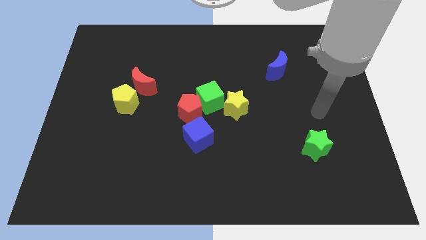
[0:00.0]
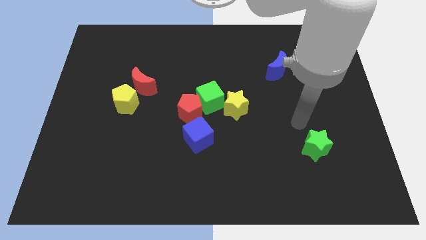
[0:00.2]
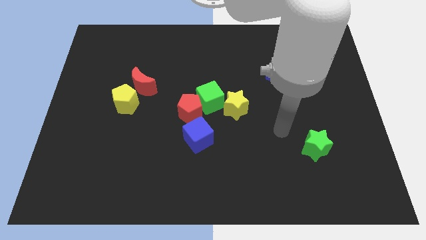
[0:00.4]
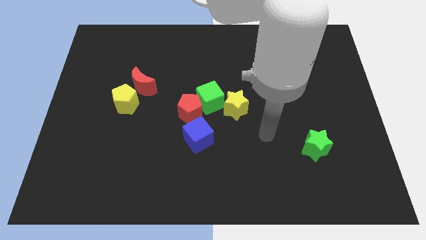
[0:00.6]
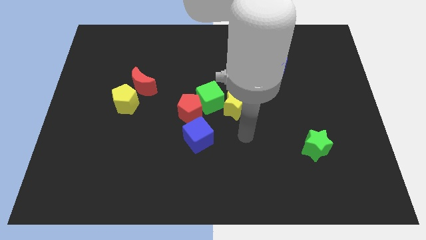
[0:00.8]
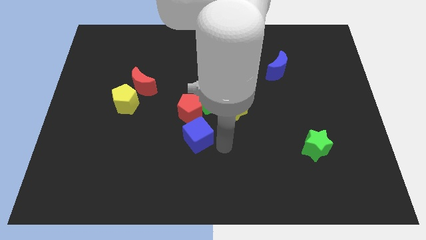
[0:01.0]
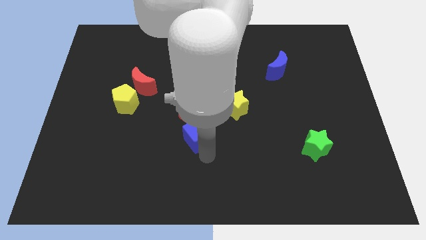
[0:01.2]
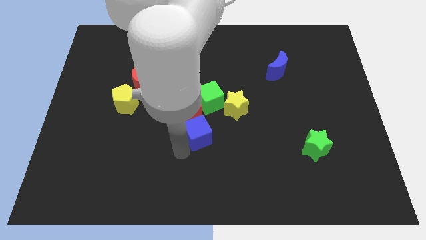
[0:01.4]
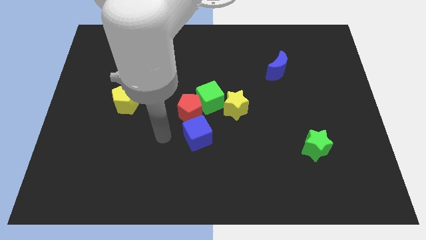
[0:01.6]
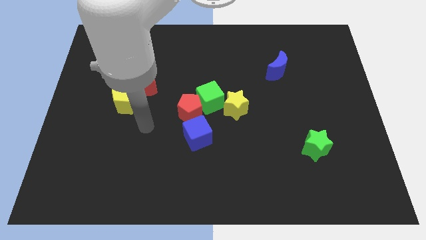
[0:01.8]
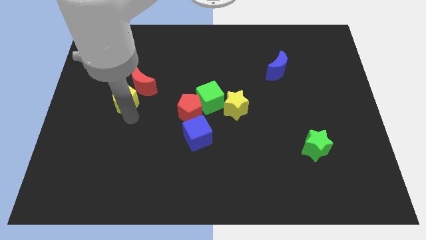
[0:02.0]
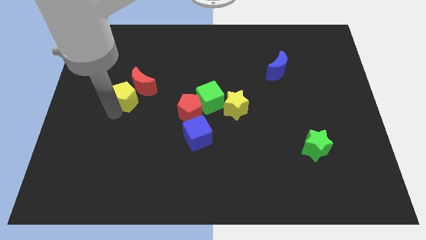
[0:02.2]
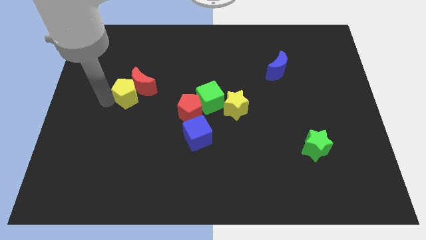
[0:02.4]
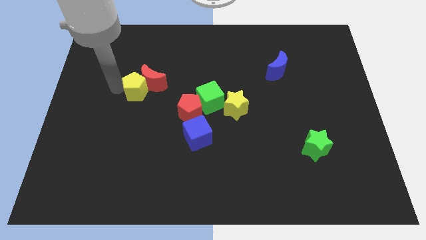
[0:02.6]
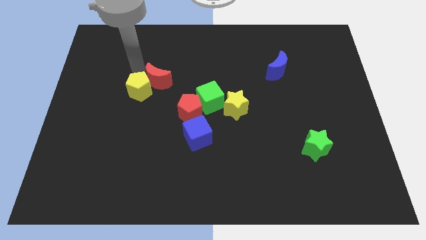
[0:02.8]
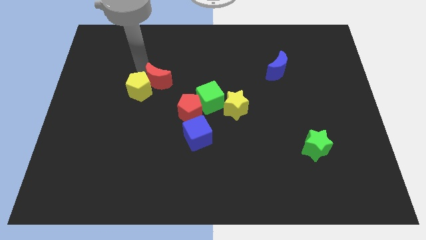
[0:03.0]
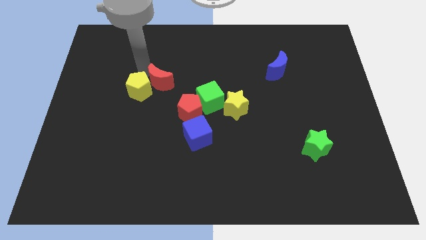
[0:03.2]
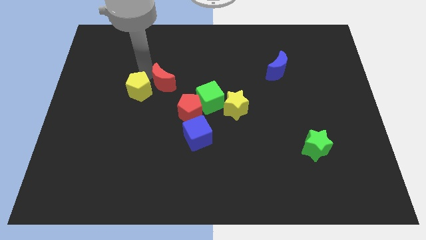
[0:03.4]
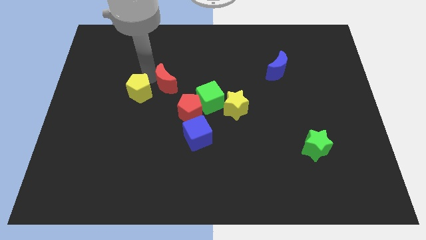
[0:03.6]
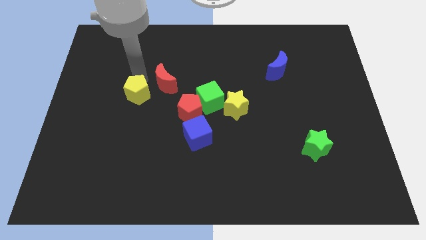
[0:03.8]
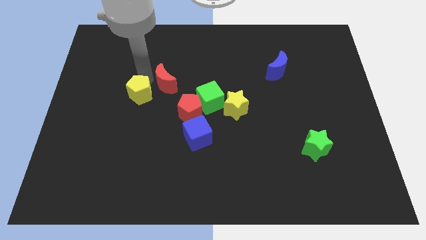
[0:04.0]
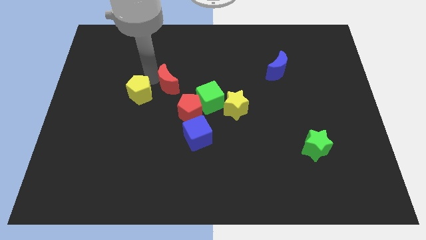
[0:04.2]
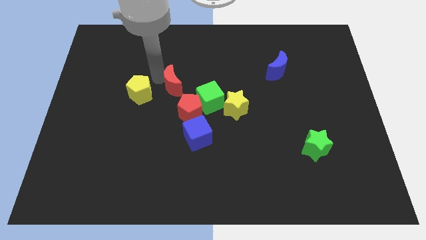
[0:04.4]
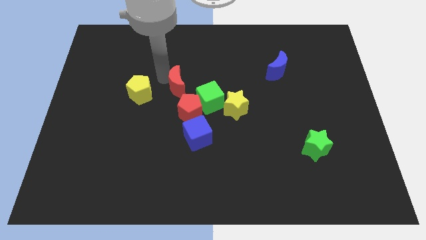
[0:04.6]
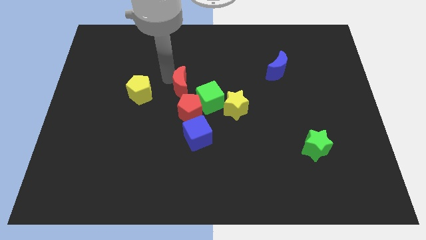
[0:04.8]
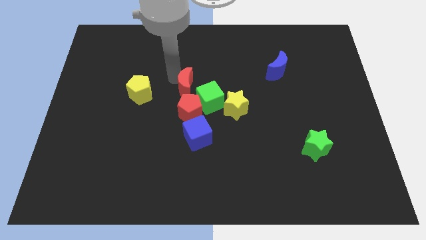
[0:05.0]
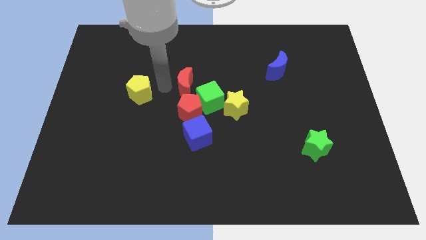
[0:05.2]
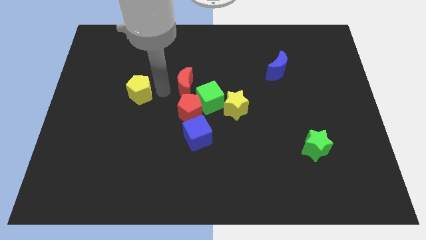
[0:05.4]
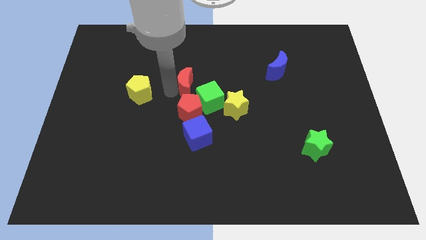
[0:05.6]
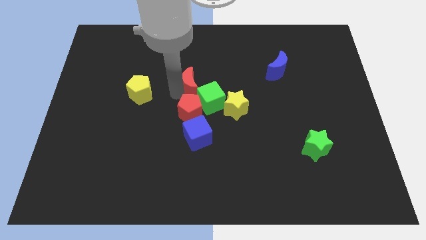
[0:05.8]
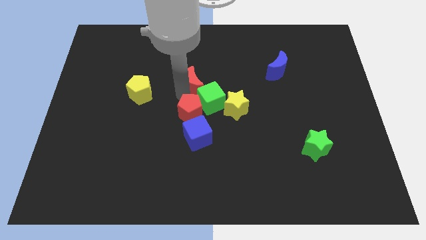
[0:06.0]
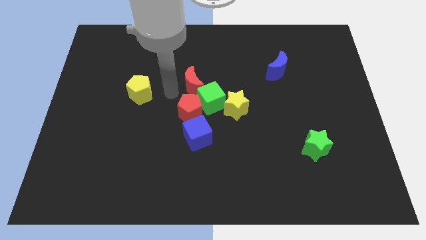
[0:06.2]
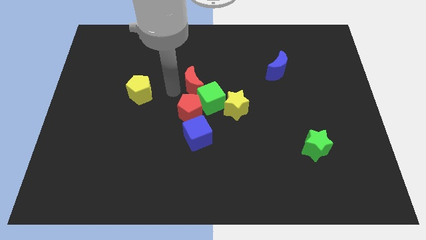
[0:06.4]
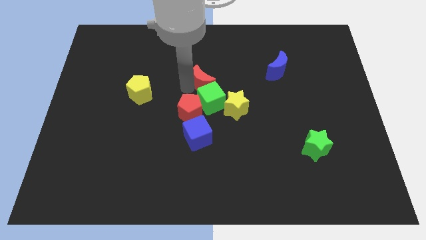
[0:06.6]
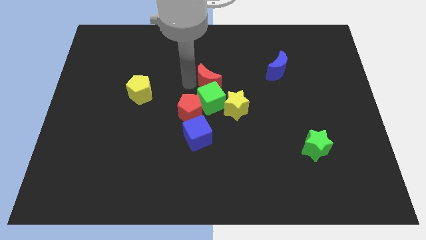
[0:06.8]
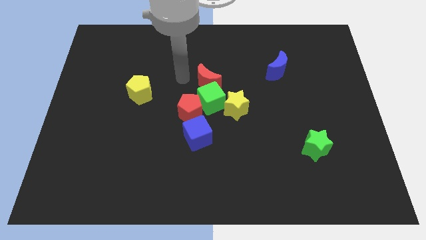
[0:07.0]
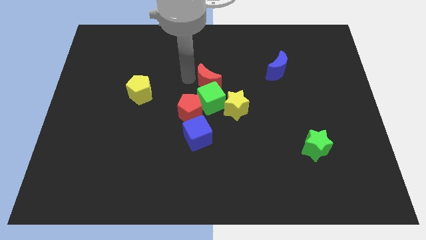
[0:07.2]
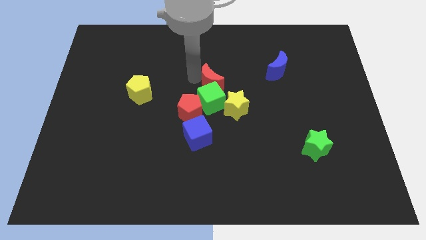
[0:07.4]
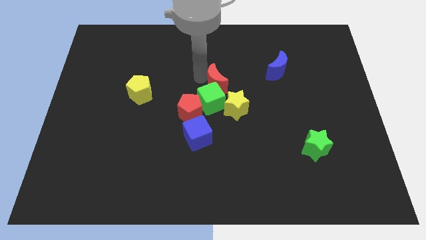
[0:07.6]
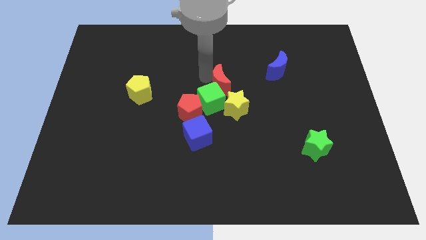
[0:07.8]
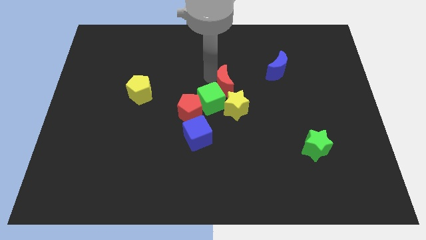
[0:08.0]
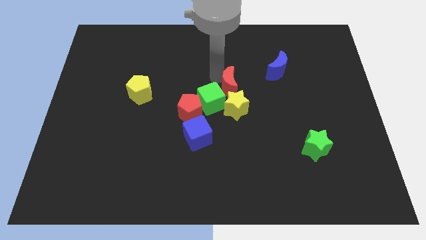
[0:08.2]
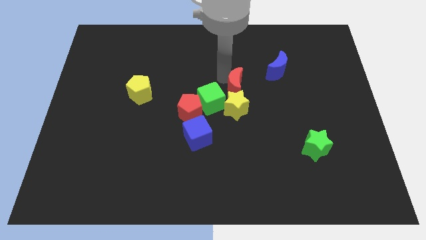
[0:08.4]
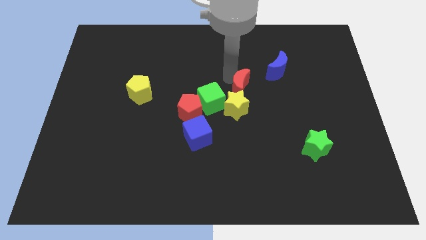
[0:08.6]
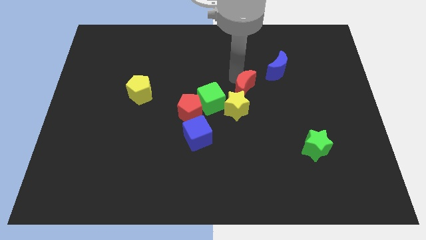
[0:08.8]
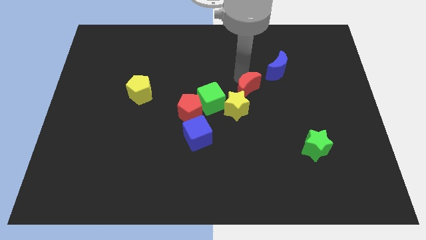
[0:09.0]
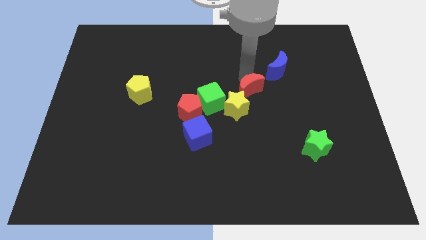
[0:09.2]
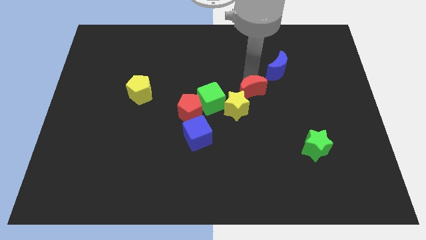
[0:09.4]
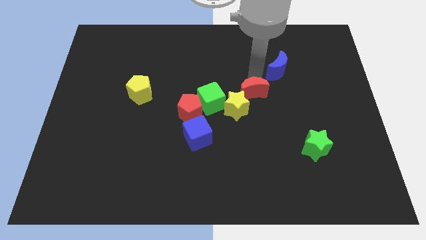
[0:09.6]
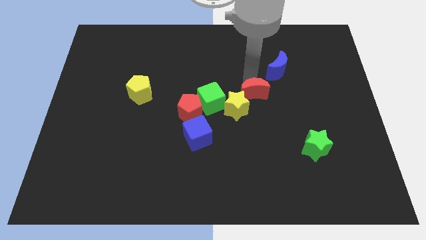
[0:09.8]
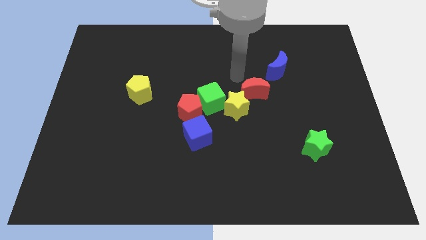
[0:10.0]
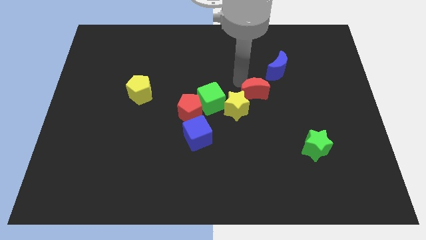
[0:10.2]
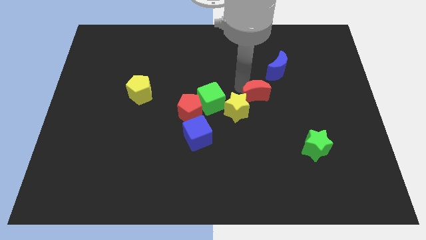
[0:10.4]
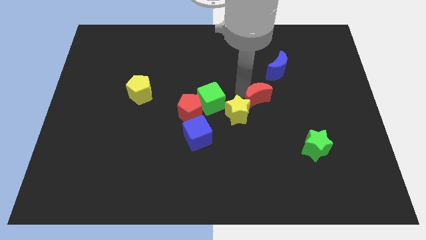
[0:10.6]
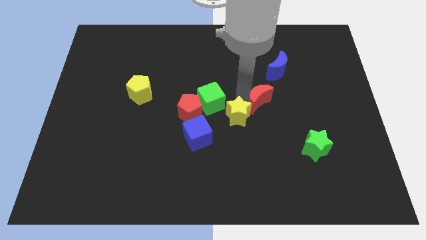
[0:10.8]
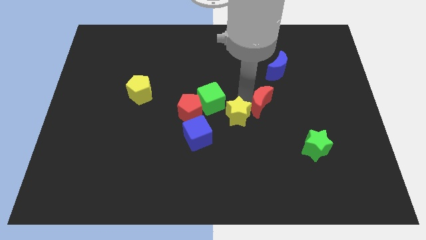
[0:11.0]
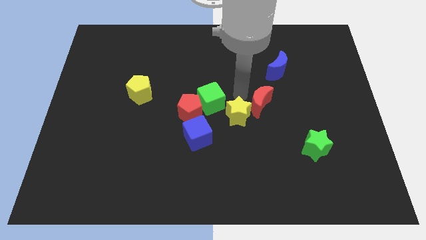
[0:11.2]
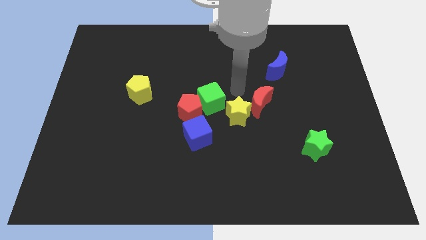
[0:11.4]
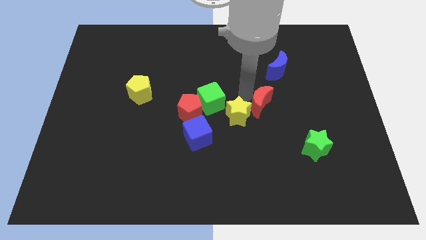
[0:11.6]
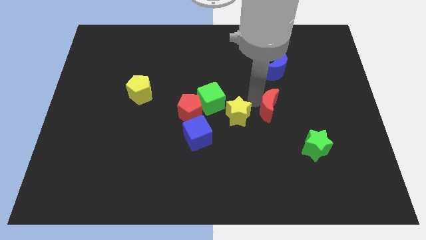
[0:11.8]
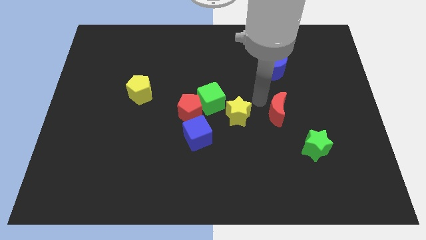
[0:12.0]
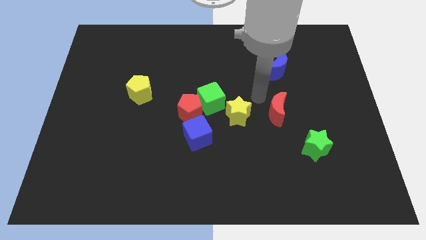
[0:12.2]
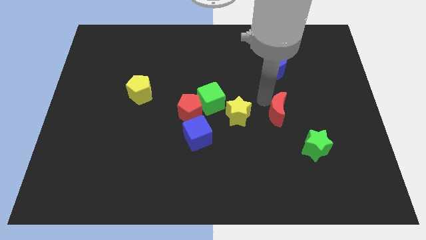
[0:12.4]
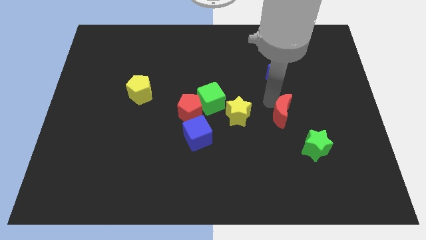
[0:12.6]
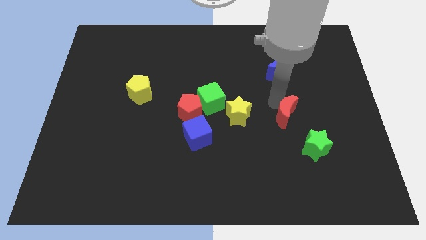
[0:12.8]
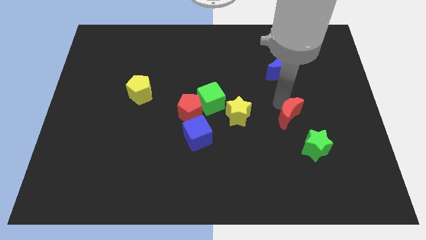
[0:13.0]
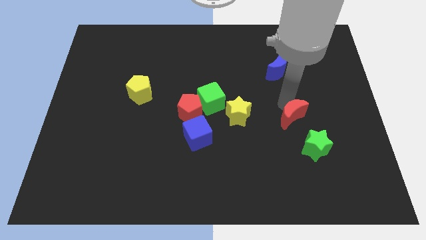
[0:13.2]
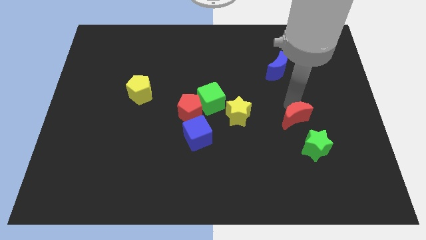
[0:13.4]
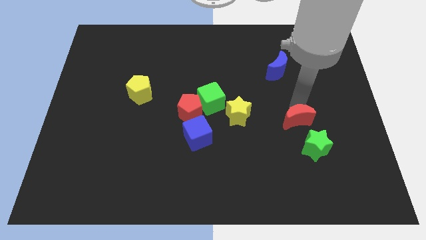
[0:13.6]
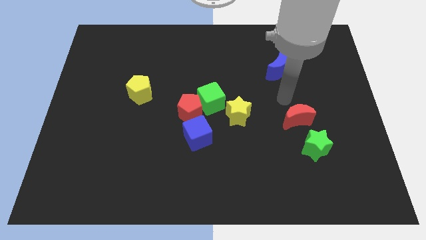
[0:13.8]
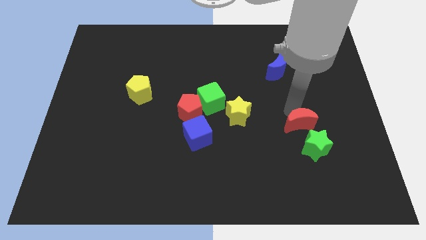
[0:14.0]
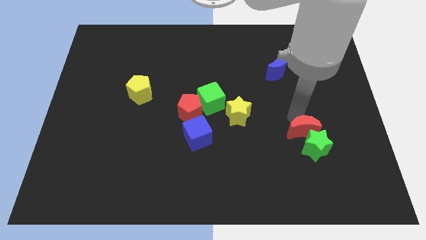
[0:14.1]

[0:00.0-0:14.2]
move the red moon towards the green star
